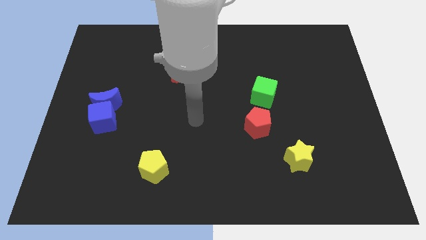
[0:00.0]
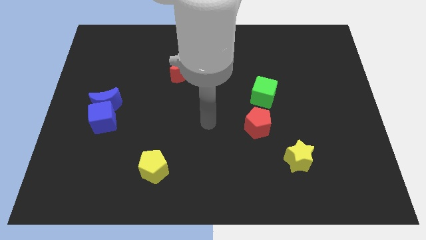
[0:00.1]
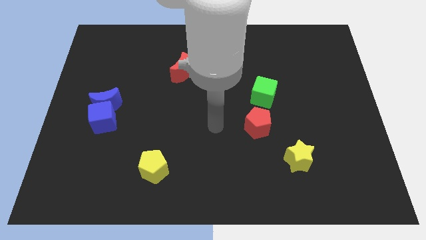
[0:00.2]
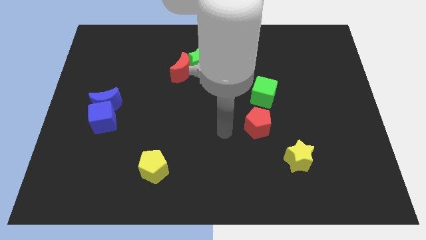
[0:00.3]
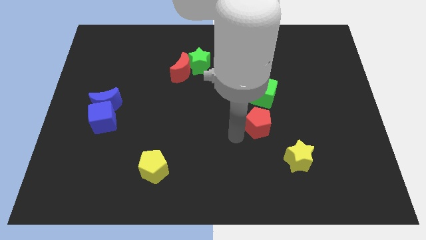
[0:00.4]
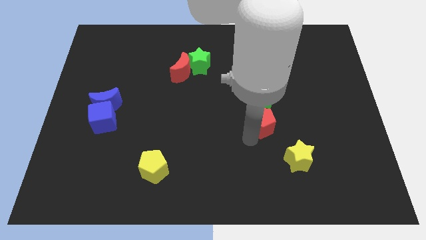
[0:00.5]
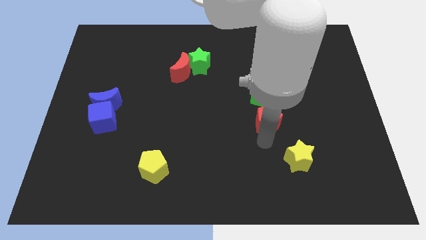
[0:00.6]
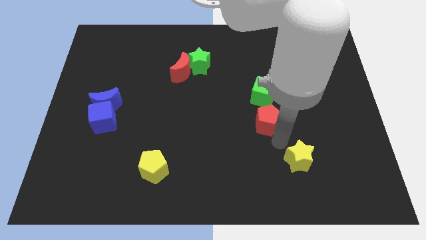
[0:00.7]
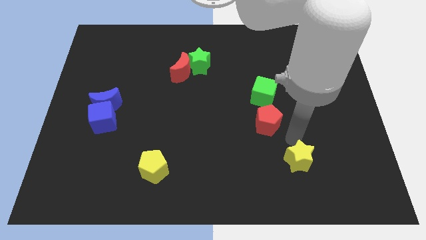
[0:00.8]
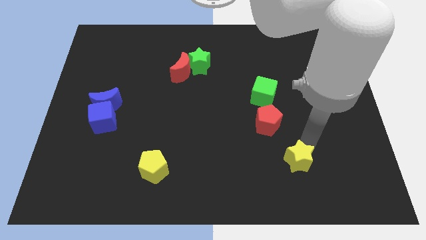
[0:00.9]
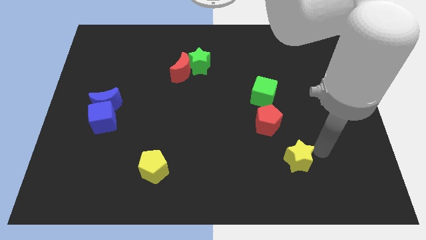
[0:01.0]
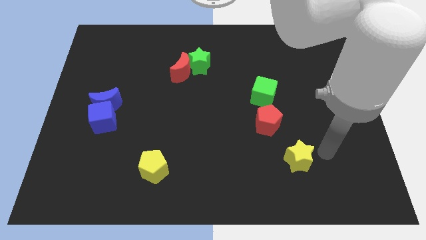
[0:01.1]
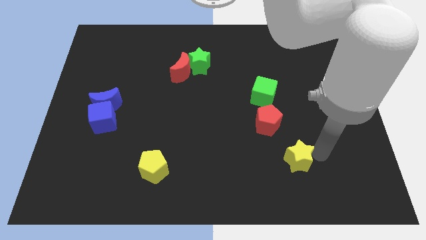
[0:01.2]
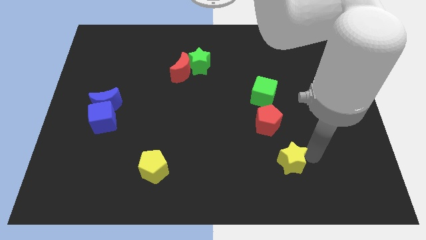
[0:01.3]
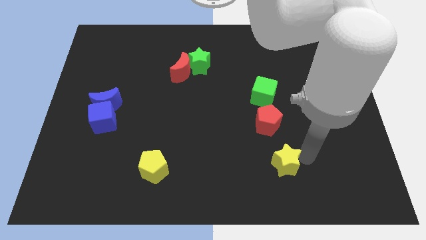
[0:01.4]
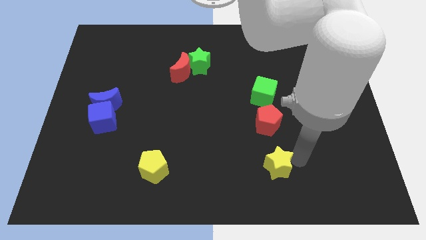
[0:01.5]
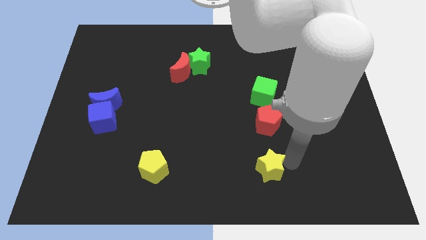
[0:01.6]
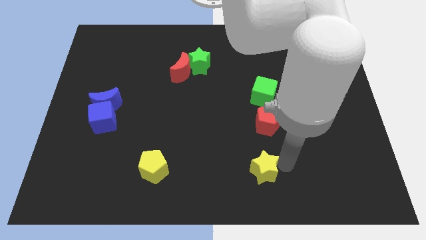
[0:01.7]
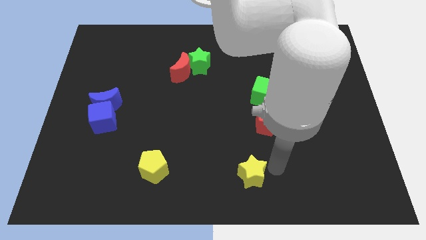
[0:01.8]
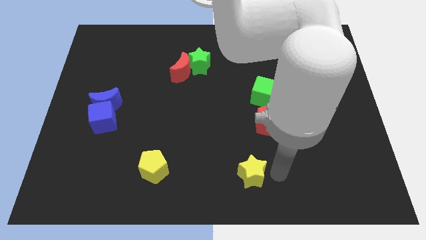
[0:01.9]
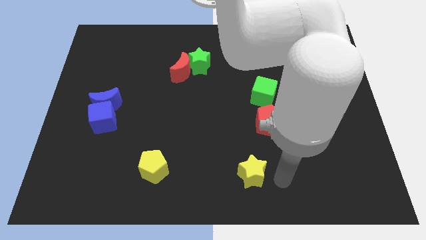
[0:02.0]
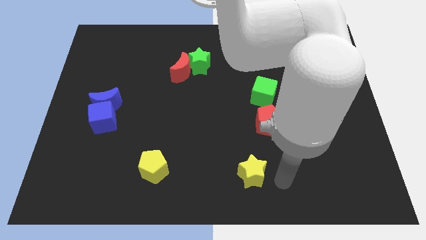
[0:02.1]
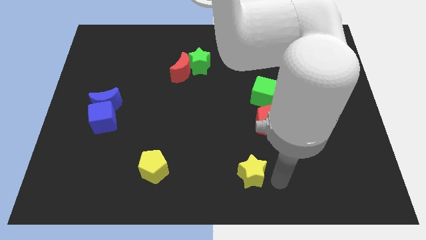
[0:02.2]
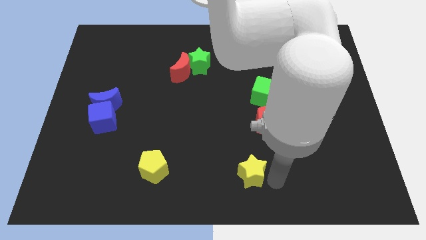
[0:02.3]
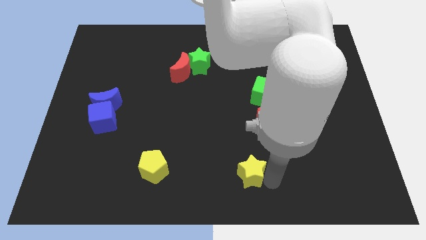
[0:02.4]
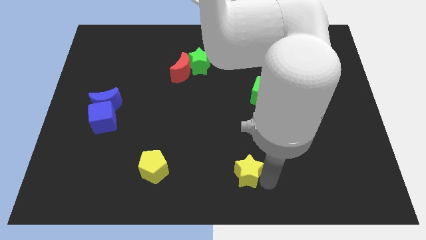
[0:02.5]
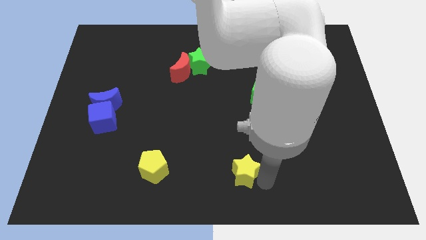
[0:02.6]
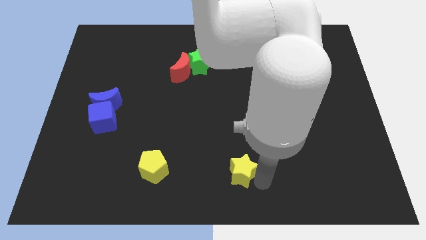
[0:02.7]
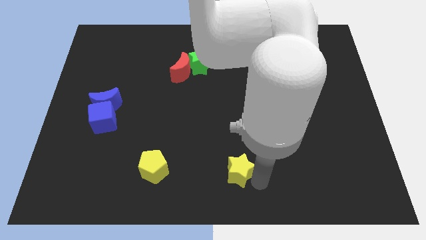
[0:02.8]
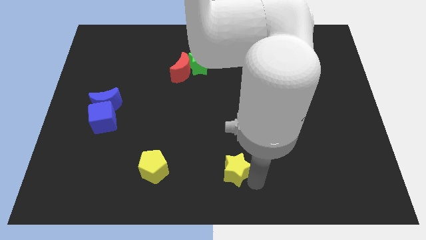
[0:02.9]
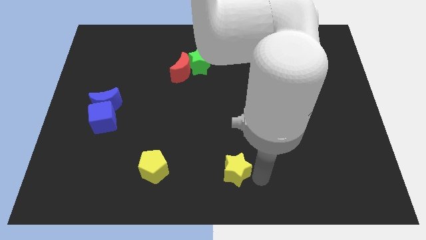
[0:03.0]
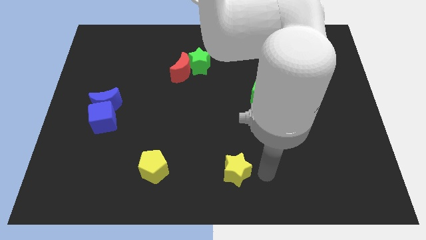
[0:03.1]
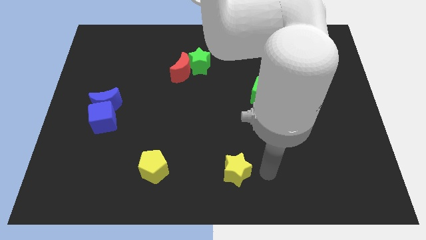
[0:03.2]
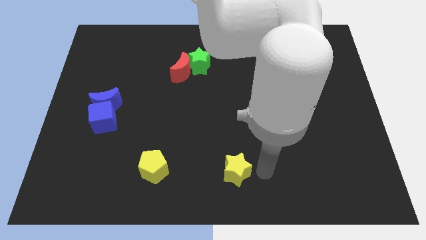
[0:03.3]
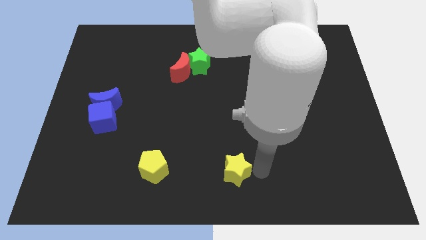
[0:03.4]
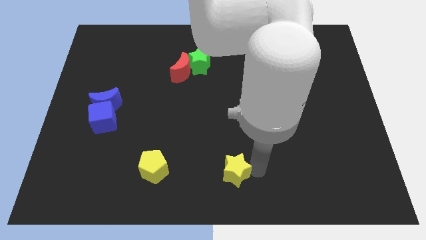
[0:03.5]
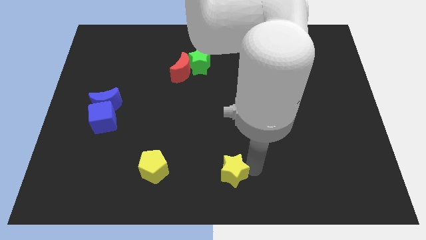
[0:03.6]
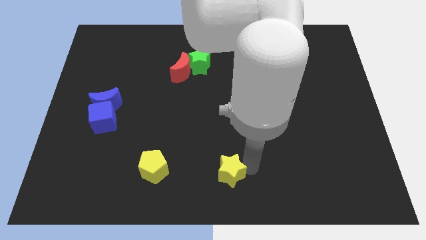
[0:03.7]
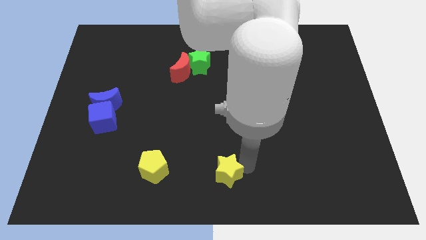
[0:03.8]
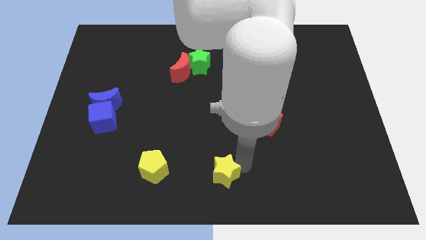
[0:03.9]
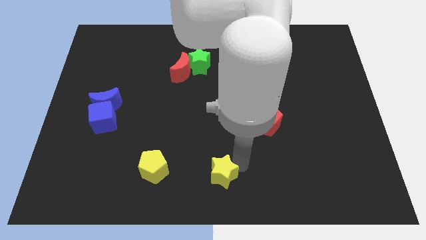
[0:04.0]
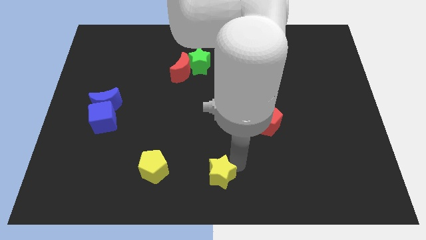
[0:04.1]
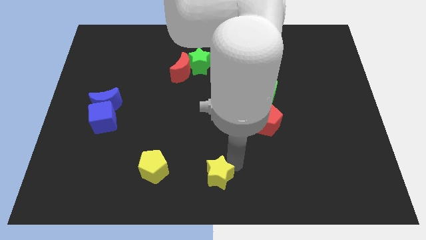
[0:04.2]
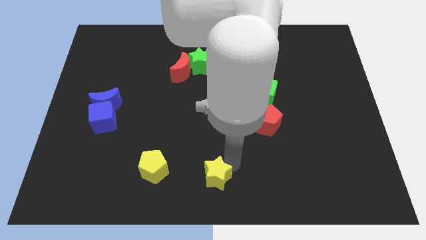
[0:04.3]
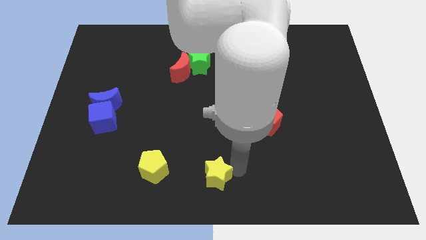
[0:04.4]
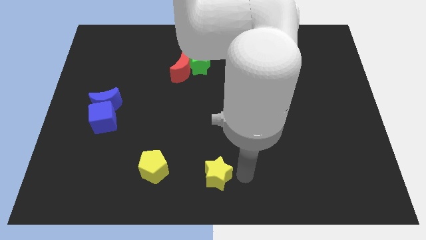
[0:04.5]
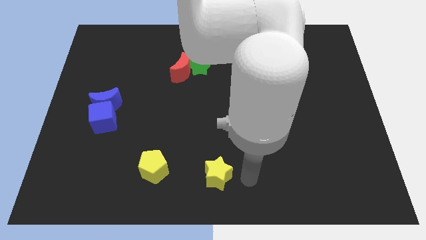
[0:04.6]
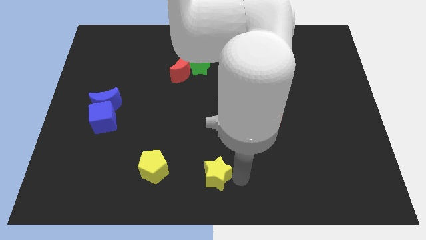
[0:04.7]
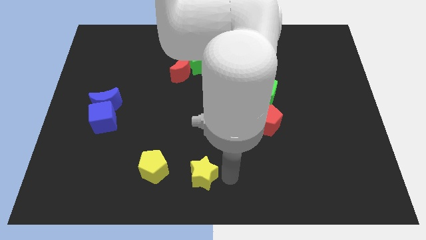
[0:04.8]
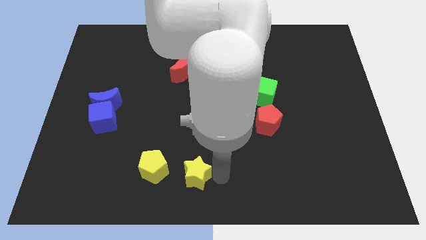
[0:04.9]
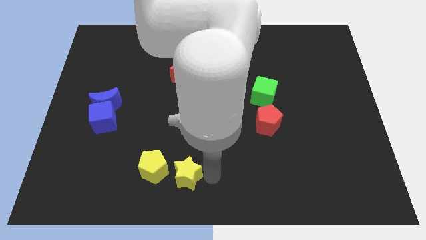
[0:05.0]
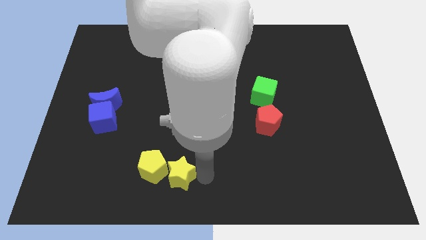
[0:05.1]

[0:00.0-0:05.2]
move the yellow star close to the yellow pentagon

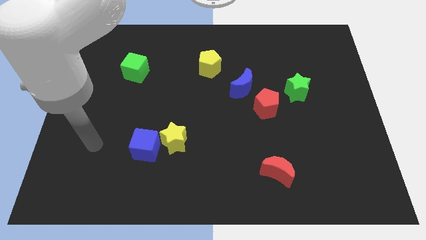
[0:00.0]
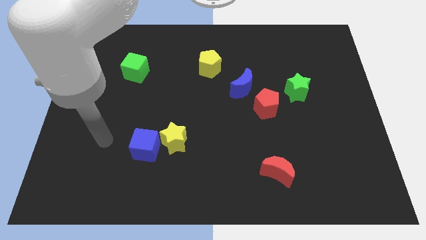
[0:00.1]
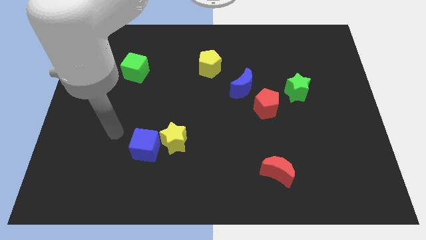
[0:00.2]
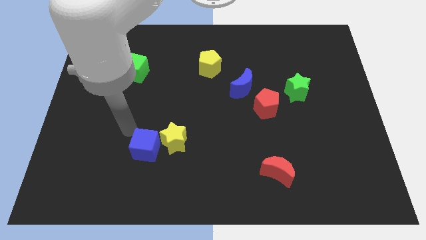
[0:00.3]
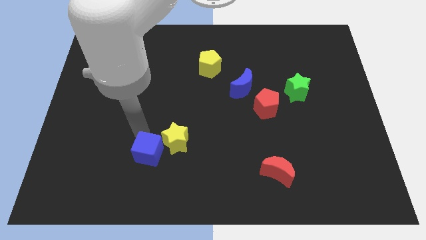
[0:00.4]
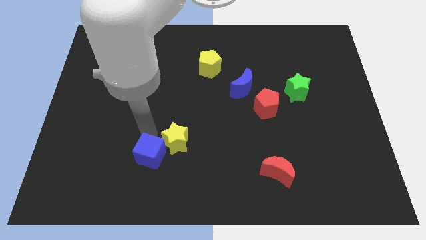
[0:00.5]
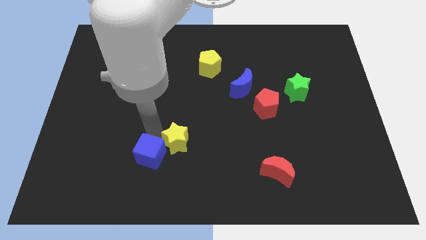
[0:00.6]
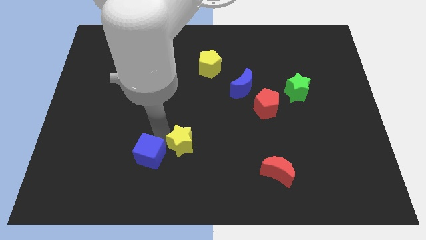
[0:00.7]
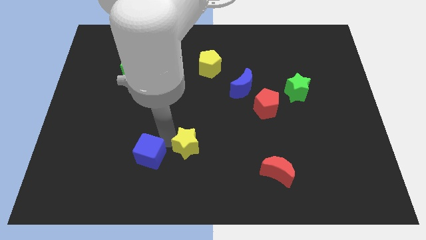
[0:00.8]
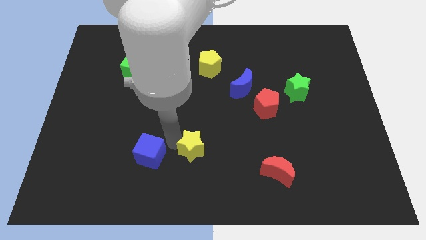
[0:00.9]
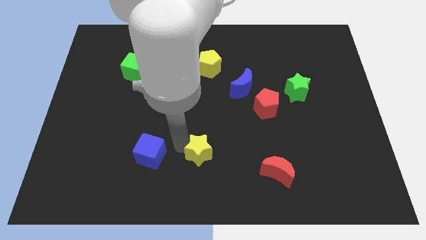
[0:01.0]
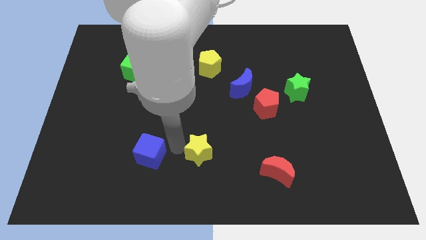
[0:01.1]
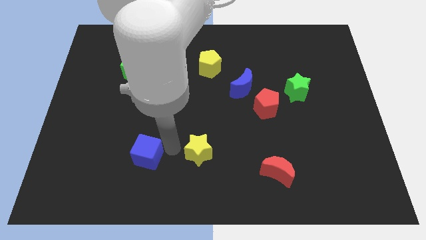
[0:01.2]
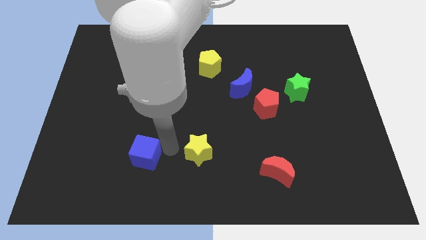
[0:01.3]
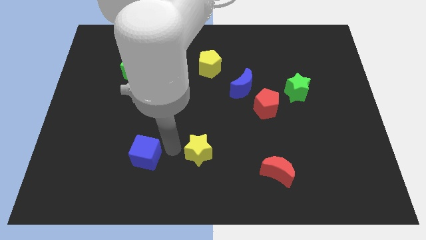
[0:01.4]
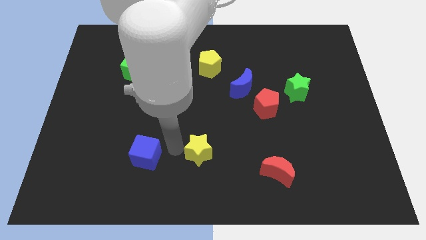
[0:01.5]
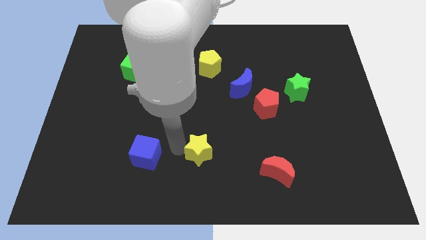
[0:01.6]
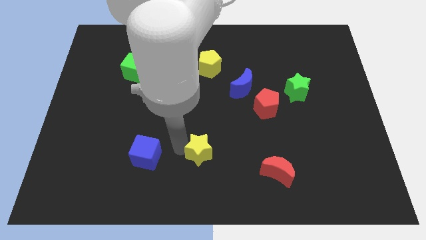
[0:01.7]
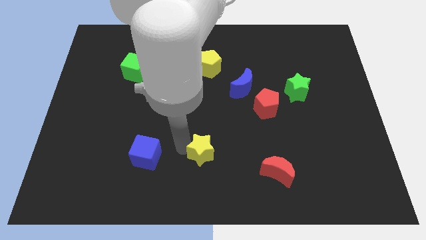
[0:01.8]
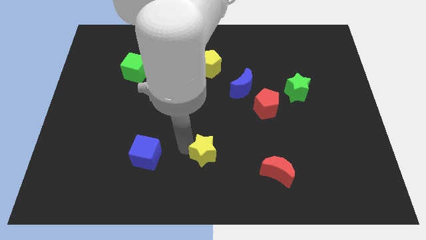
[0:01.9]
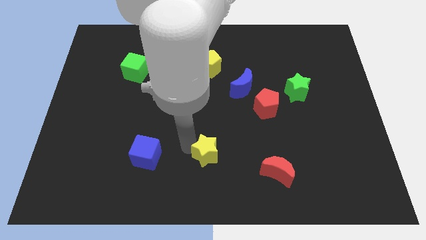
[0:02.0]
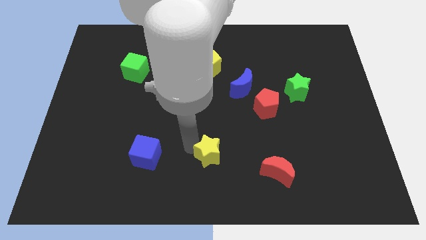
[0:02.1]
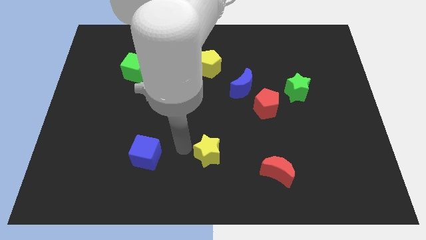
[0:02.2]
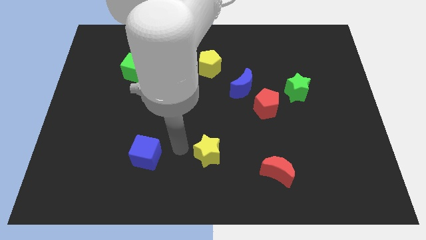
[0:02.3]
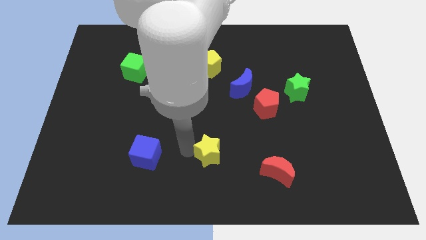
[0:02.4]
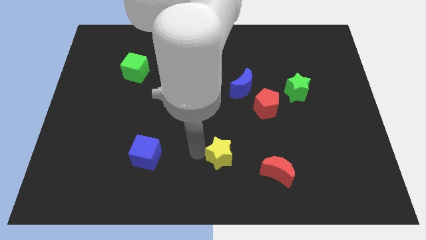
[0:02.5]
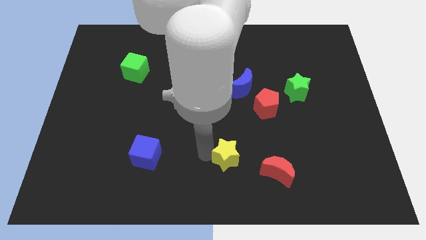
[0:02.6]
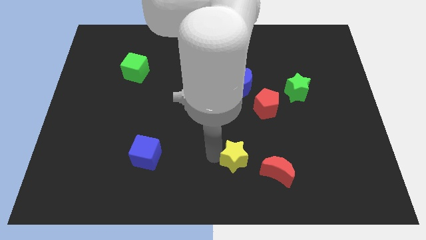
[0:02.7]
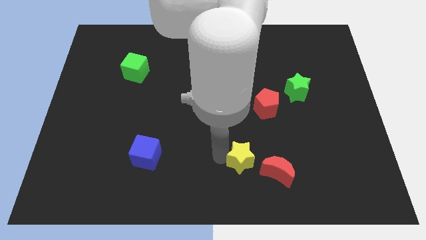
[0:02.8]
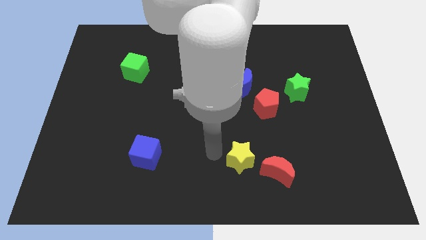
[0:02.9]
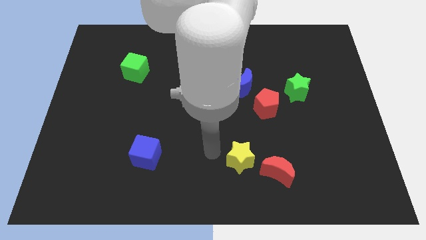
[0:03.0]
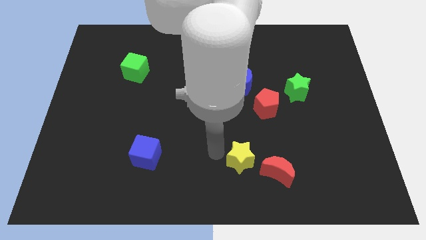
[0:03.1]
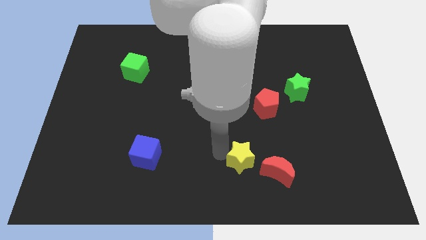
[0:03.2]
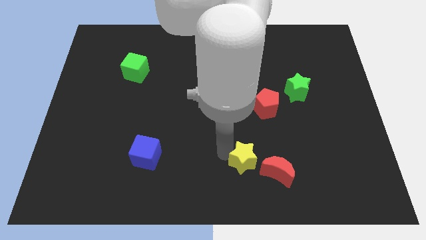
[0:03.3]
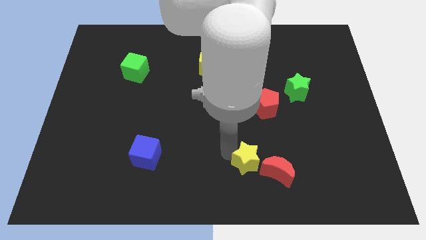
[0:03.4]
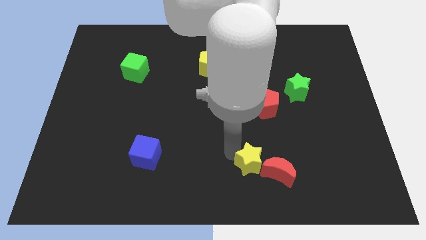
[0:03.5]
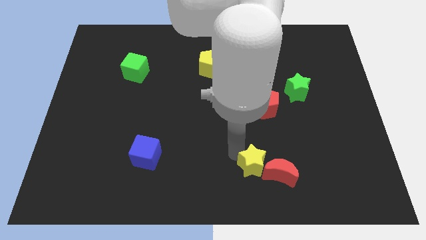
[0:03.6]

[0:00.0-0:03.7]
slide the yellow star towards the red moon
